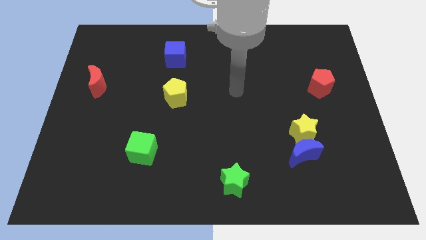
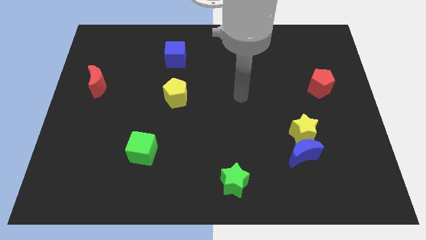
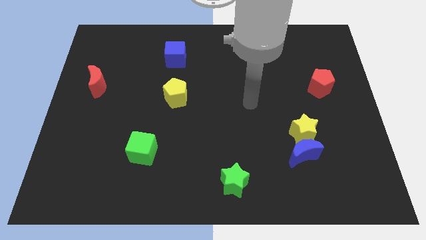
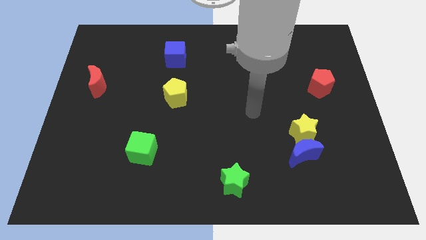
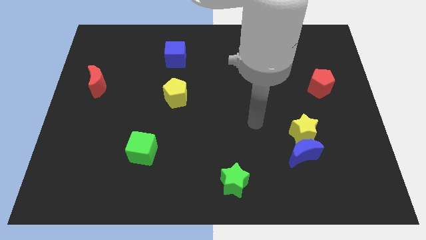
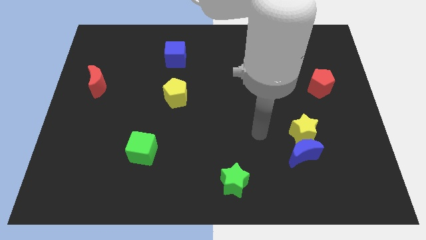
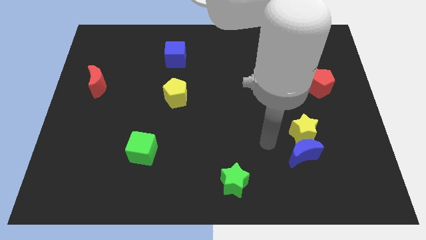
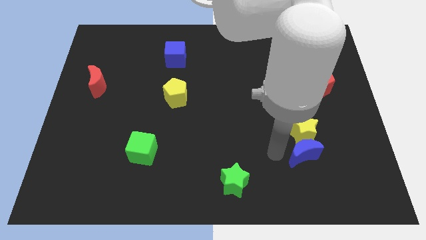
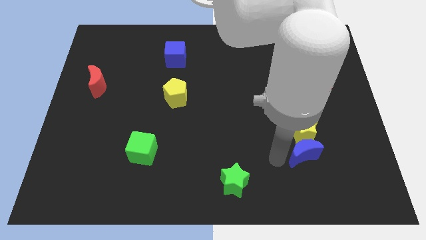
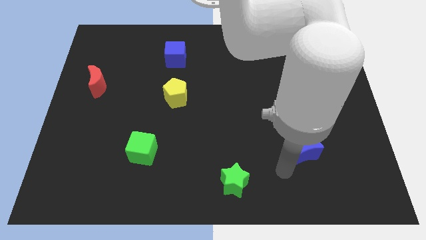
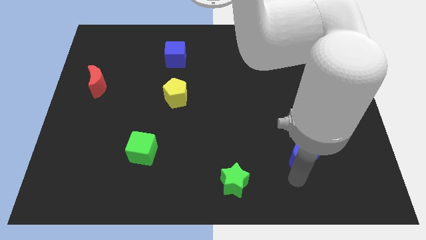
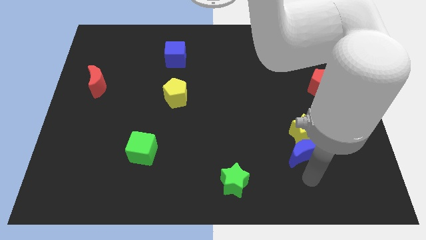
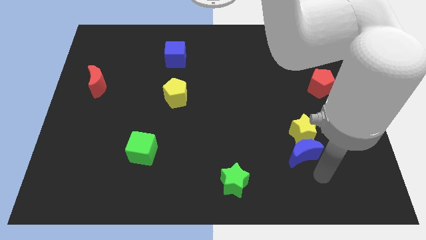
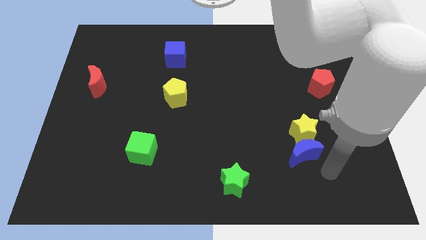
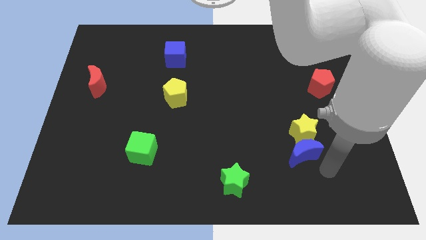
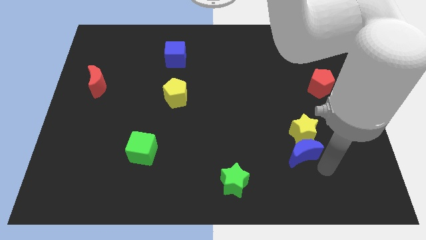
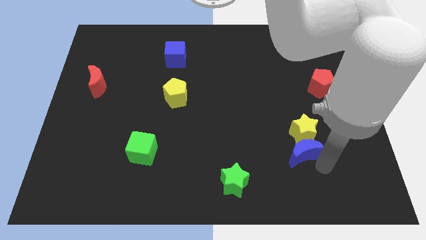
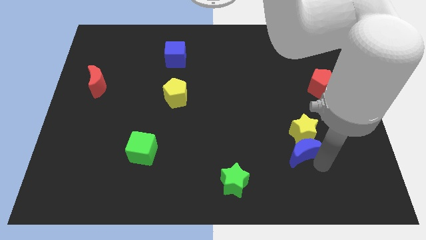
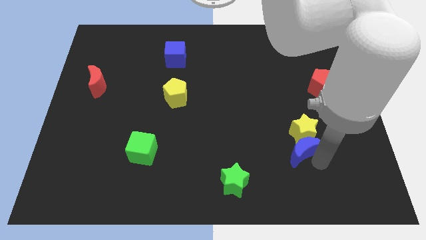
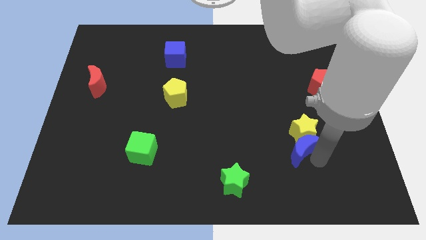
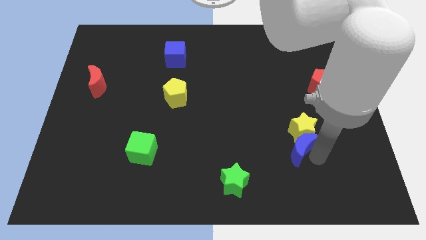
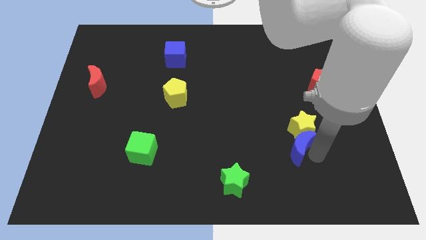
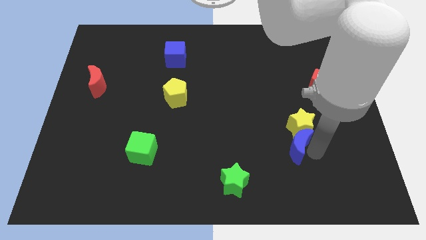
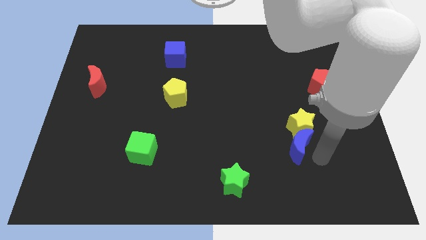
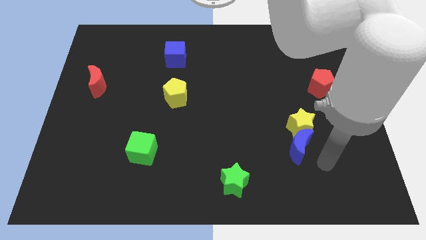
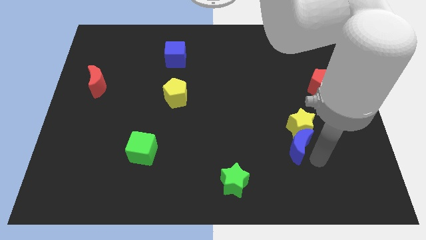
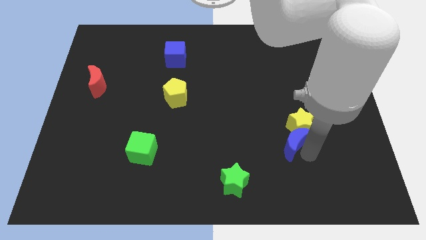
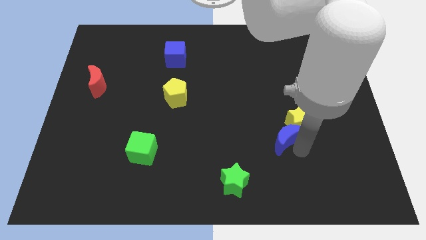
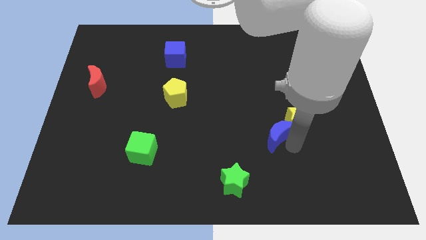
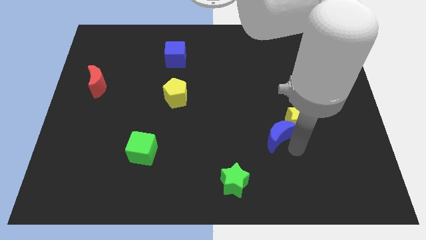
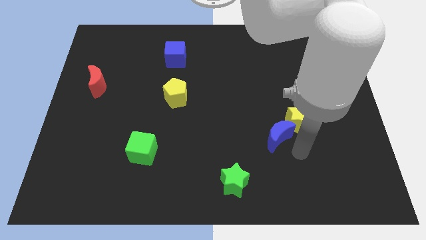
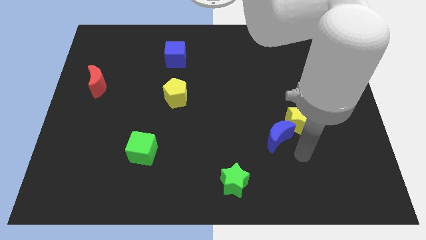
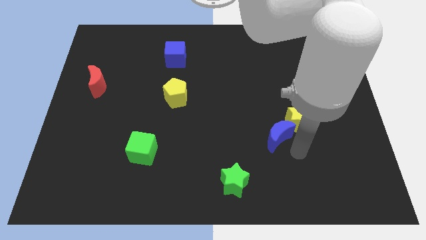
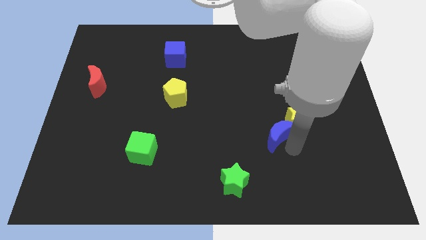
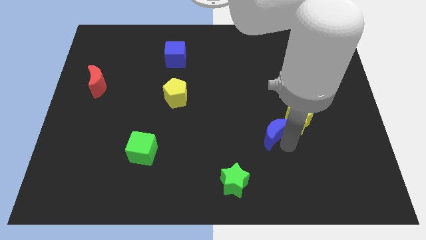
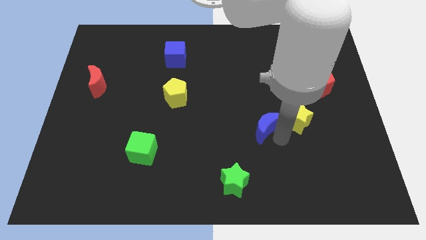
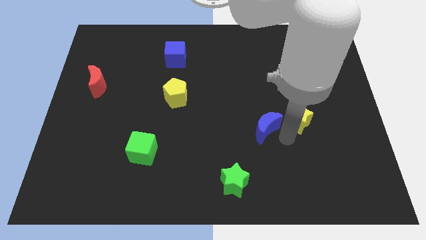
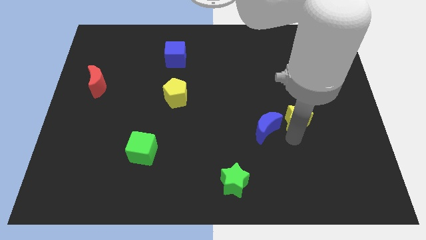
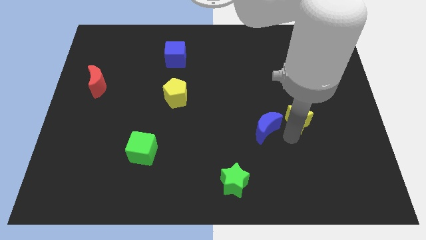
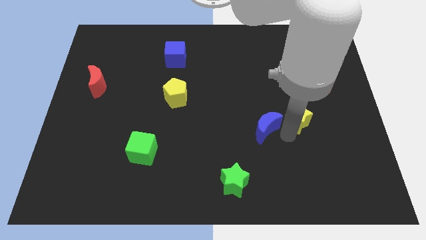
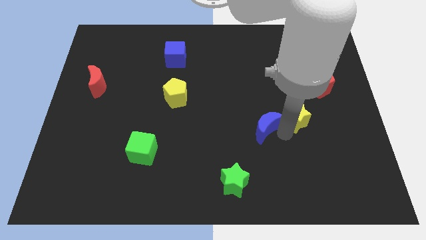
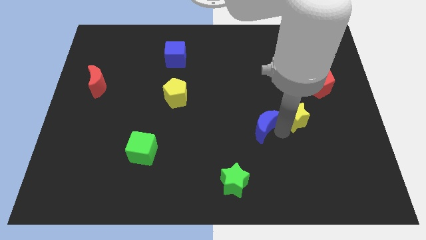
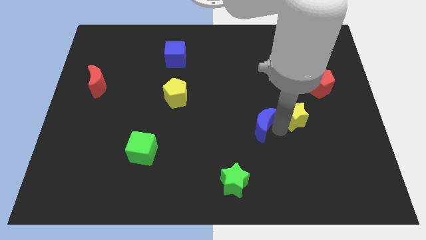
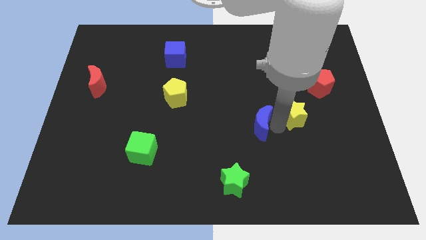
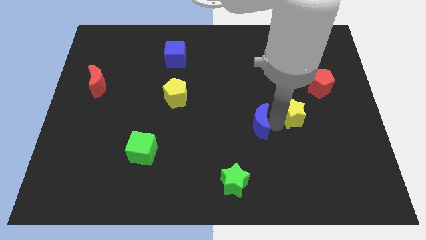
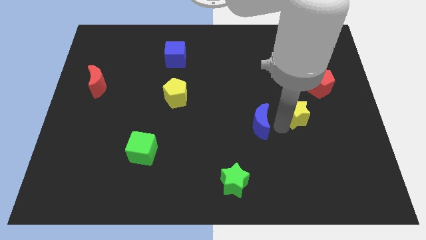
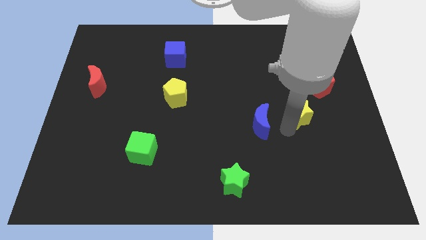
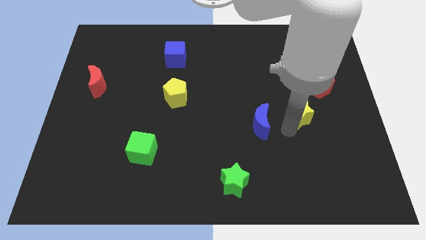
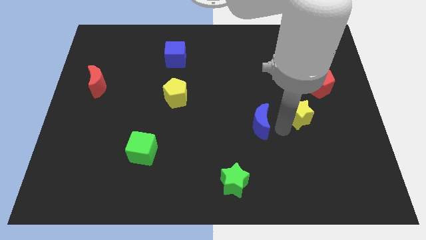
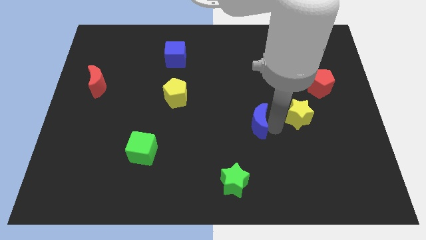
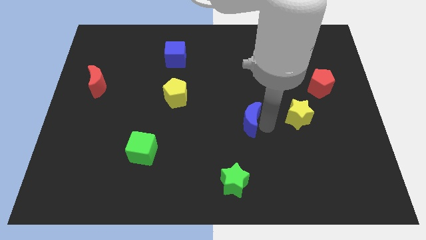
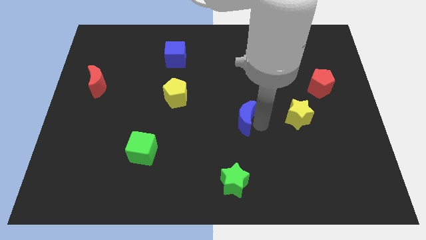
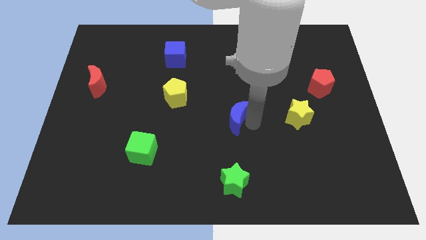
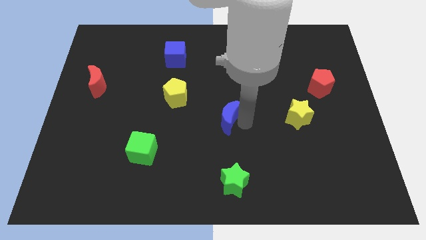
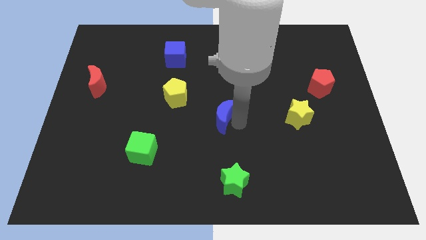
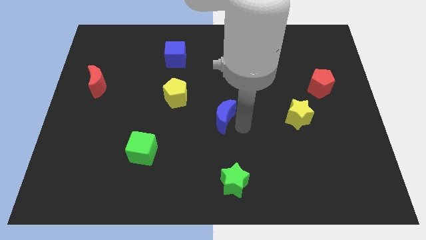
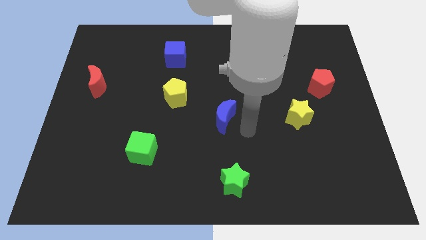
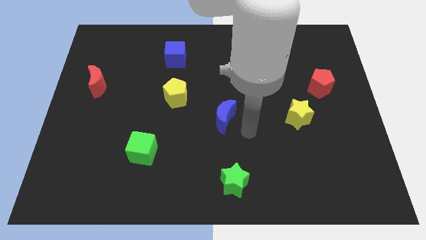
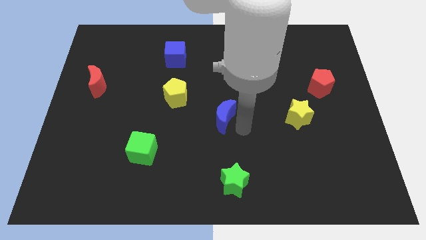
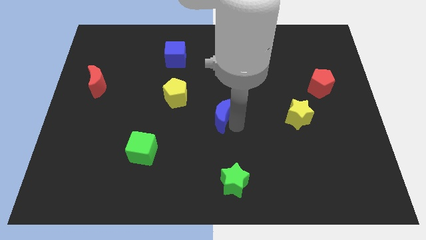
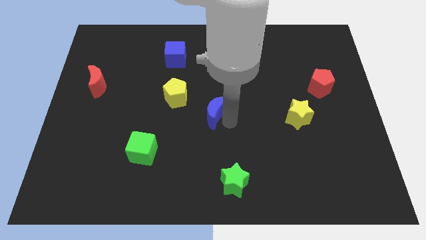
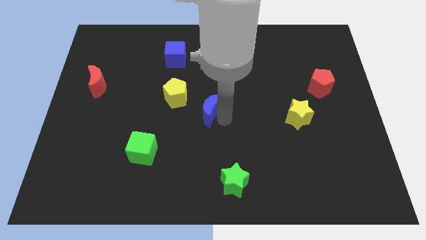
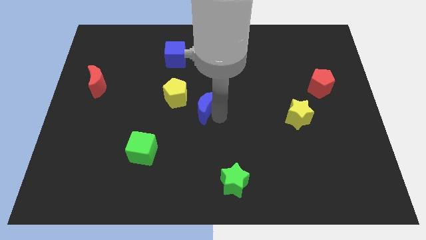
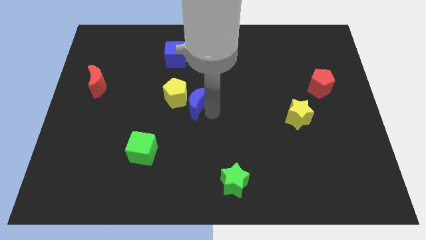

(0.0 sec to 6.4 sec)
slide the blue moon close to the yellow pentagon

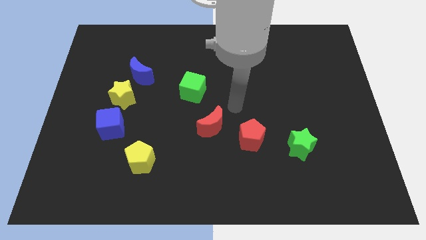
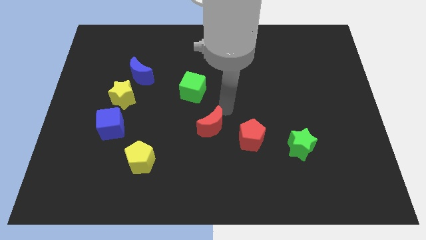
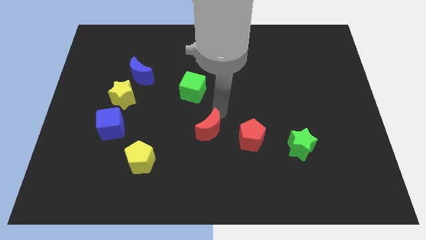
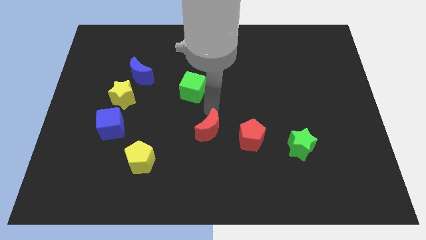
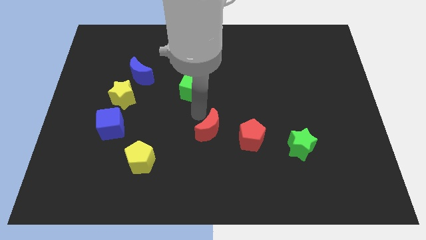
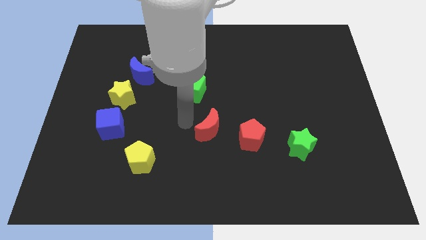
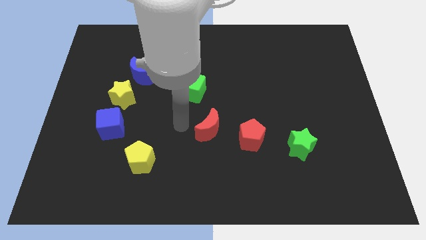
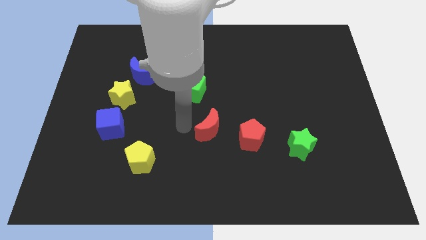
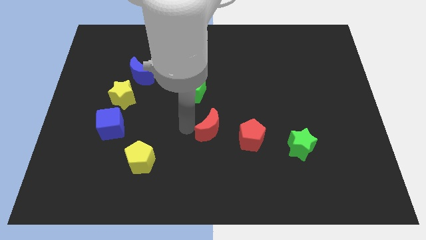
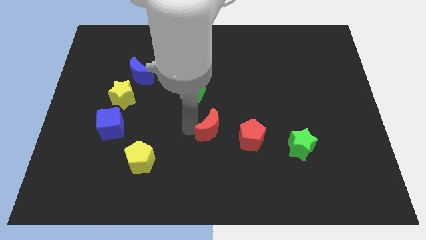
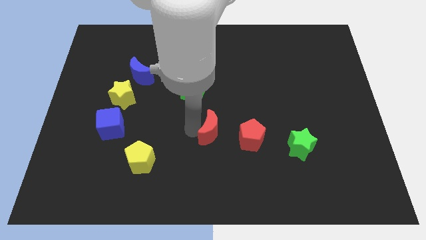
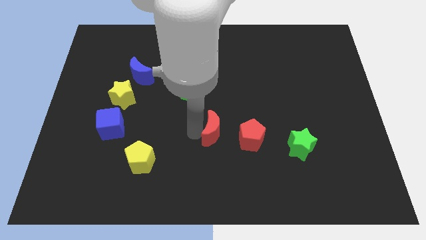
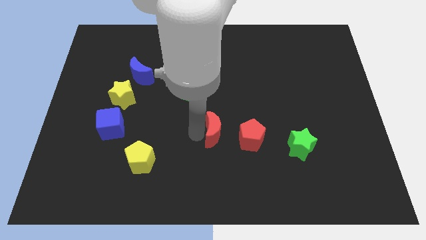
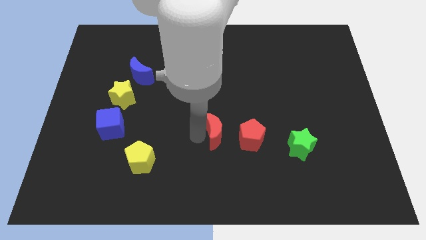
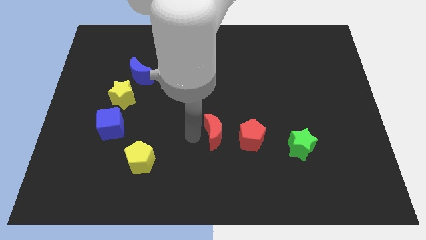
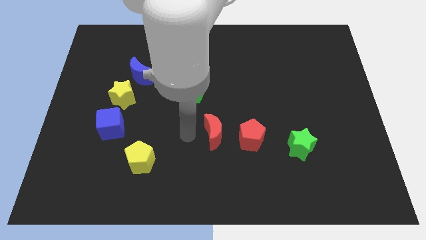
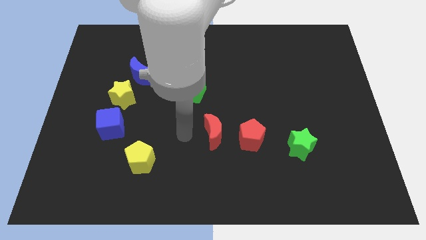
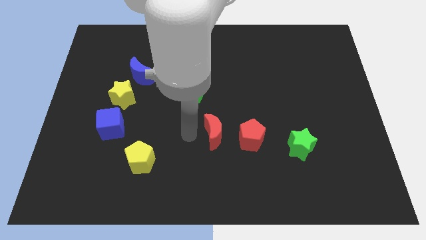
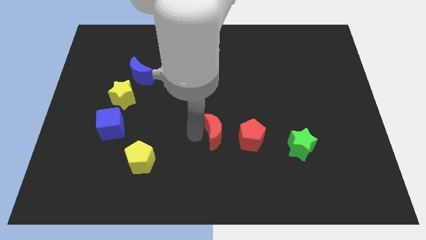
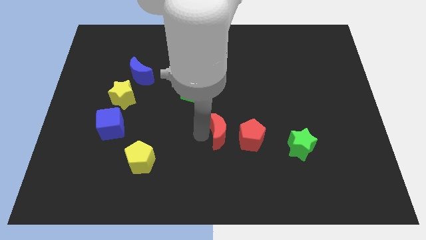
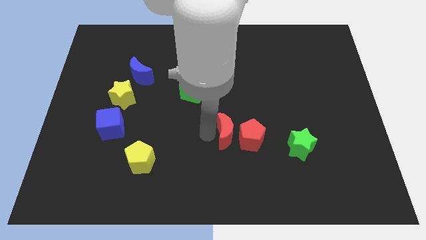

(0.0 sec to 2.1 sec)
slide the red moon to the red pentagon
